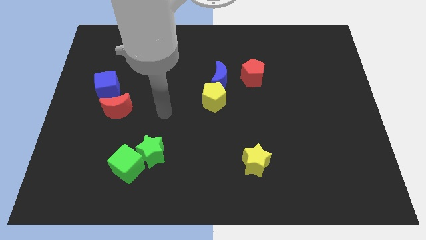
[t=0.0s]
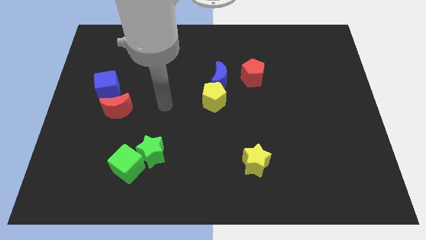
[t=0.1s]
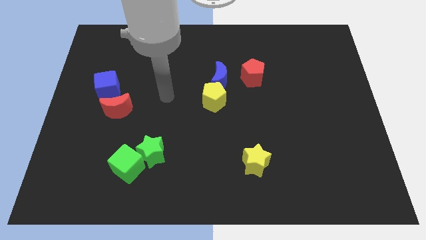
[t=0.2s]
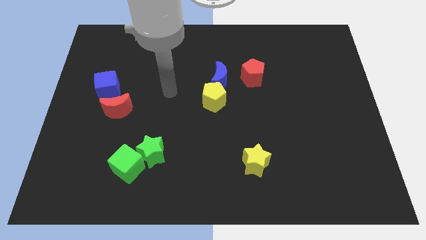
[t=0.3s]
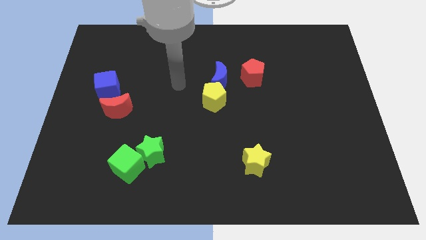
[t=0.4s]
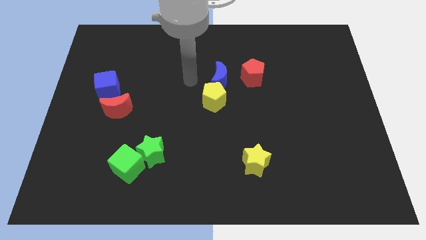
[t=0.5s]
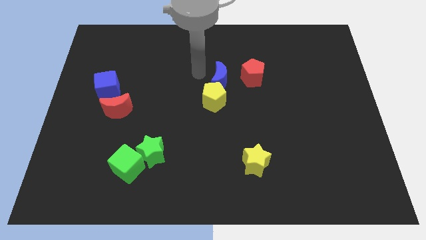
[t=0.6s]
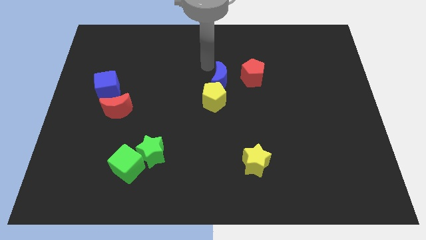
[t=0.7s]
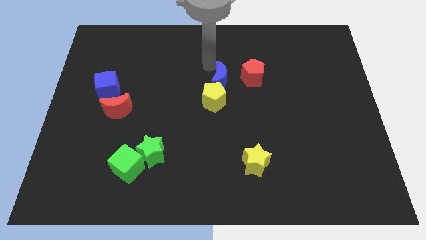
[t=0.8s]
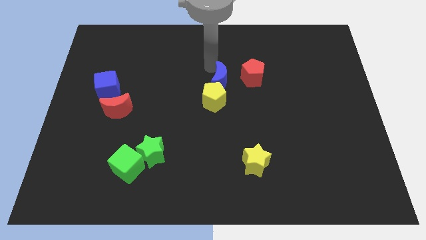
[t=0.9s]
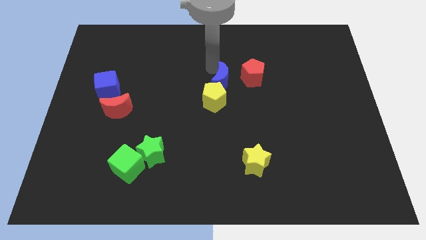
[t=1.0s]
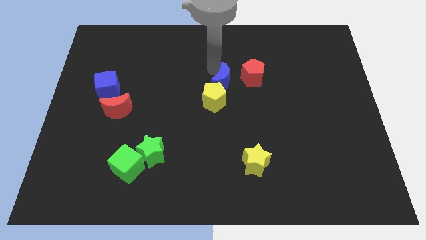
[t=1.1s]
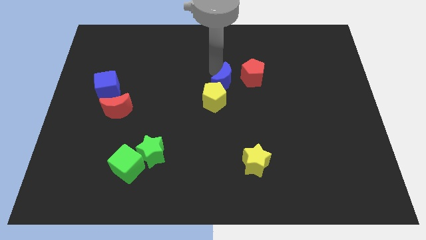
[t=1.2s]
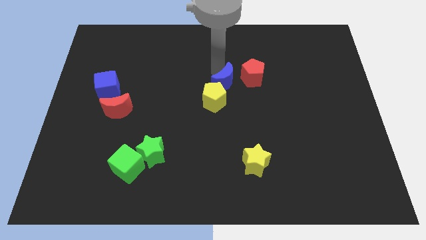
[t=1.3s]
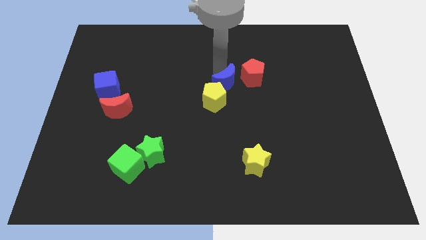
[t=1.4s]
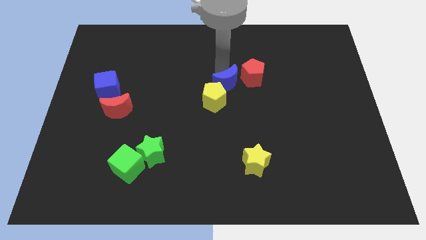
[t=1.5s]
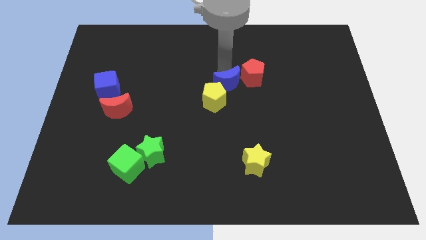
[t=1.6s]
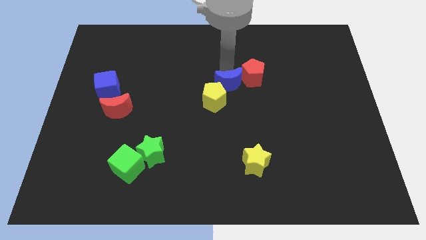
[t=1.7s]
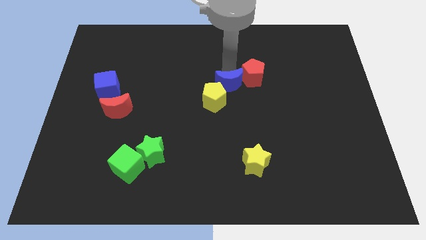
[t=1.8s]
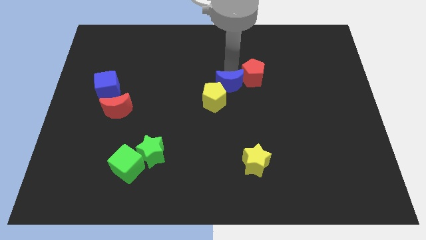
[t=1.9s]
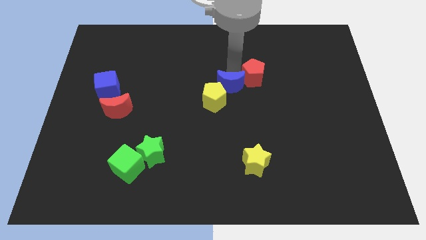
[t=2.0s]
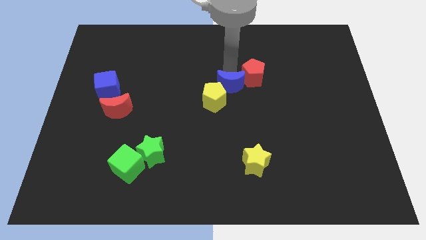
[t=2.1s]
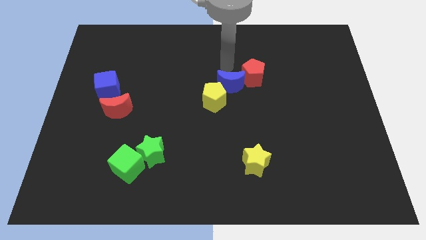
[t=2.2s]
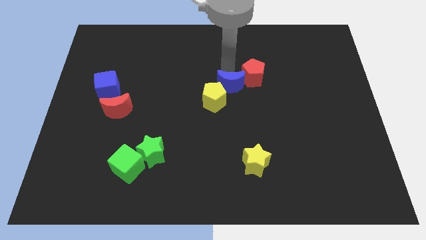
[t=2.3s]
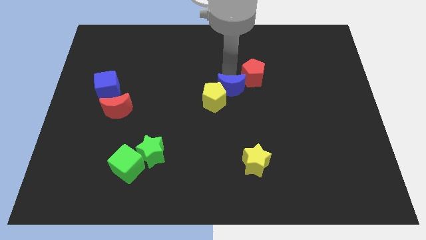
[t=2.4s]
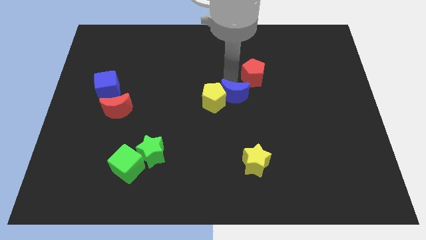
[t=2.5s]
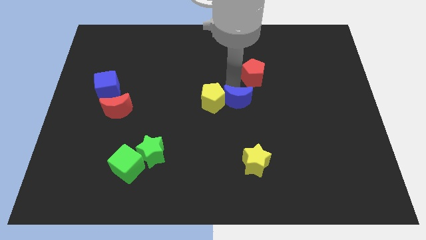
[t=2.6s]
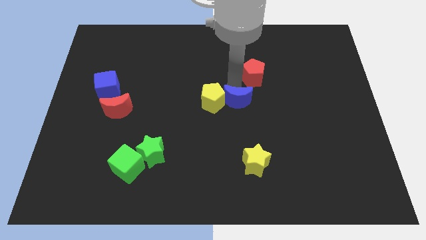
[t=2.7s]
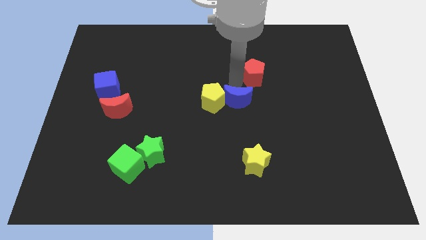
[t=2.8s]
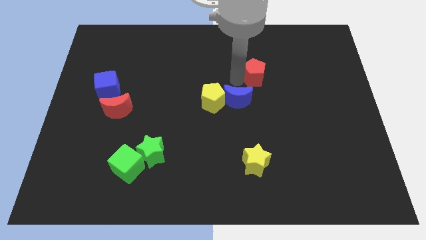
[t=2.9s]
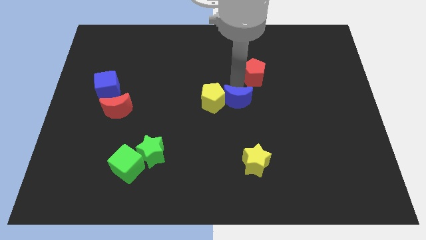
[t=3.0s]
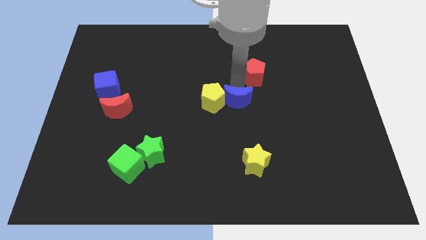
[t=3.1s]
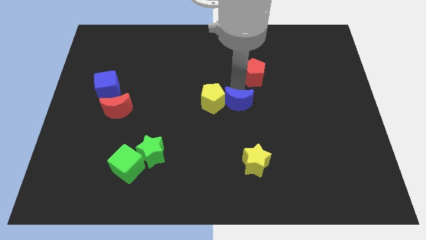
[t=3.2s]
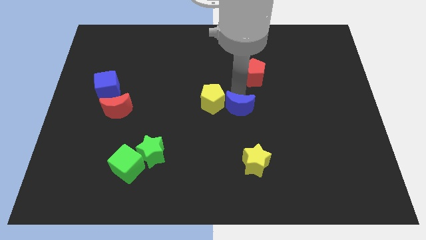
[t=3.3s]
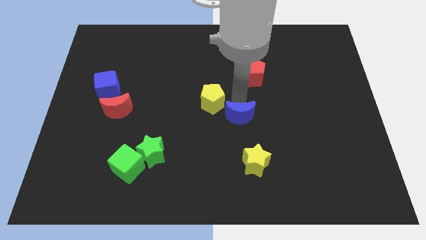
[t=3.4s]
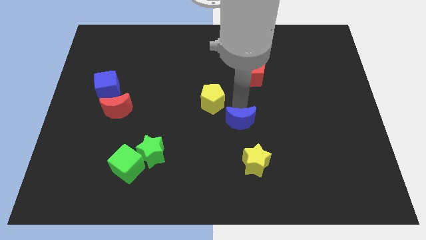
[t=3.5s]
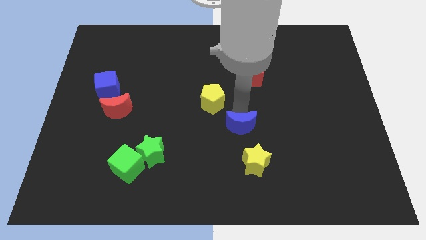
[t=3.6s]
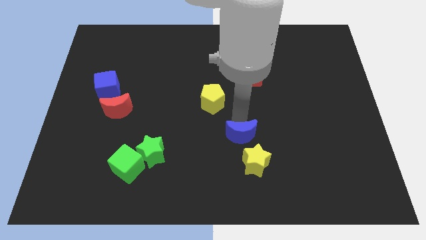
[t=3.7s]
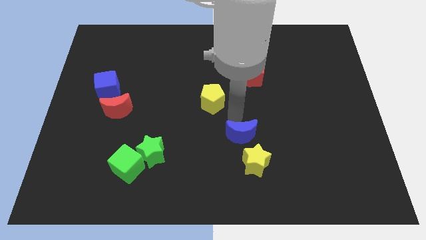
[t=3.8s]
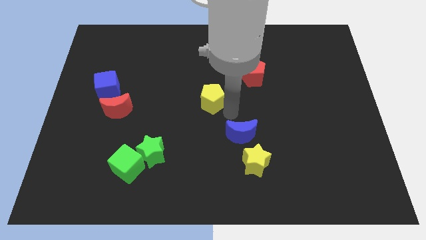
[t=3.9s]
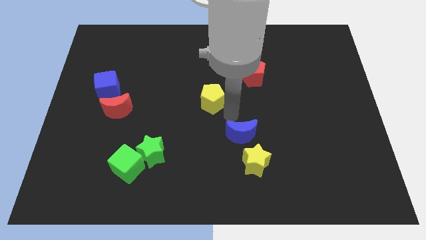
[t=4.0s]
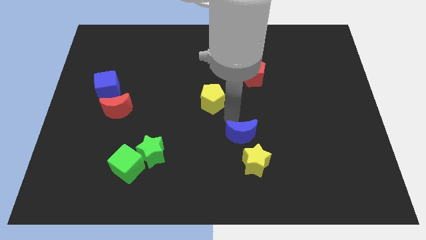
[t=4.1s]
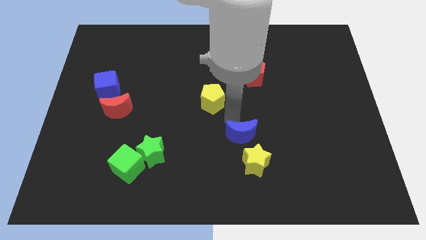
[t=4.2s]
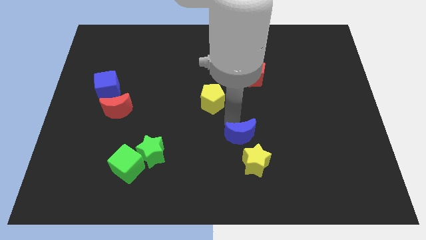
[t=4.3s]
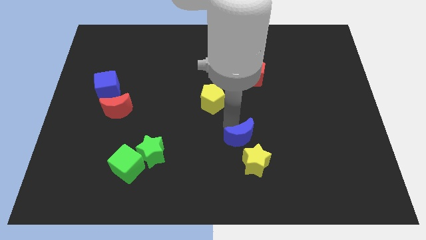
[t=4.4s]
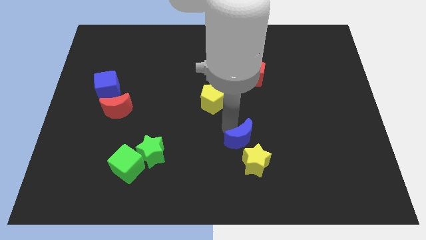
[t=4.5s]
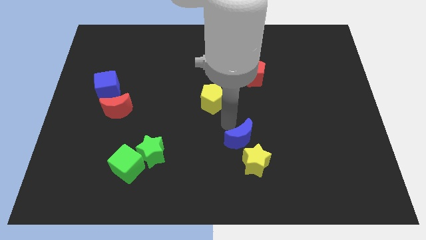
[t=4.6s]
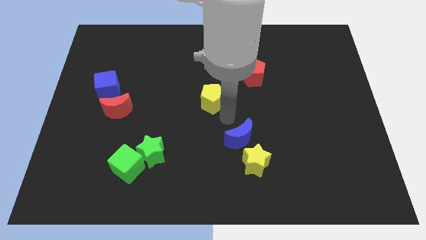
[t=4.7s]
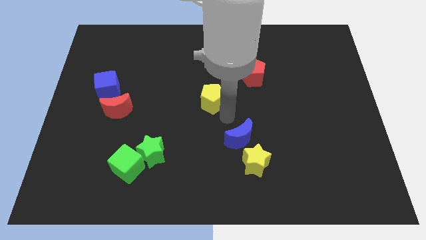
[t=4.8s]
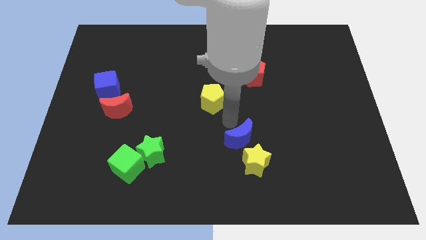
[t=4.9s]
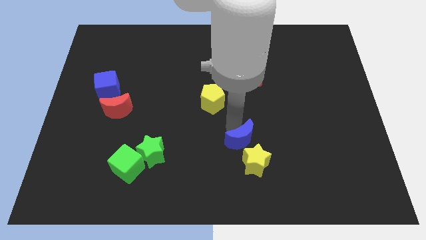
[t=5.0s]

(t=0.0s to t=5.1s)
put the blue moon close to the yellow star

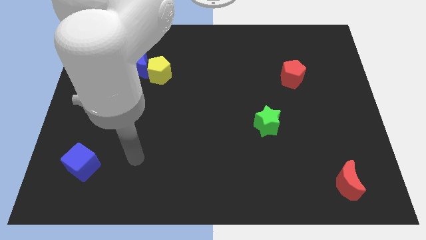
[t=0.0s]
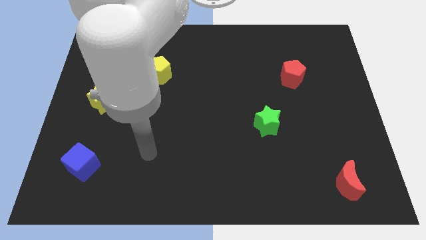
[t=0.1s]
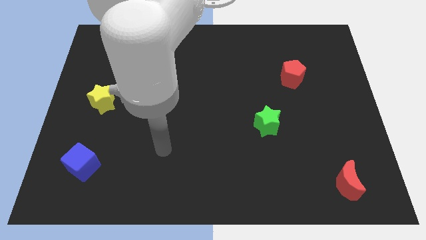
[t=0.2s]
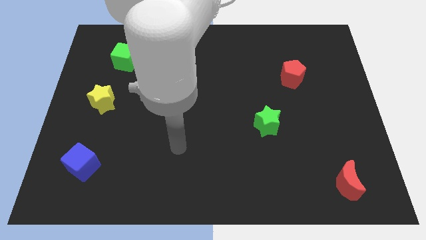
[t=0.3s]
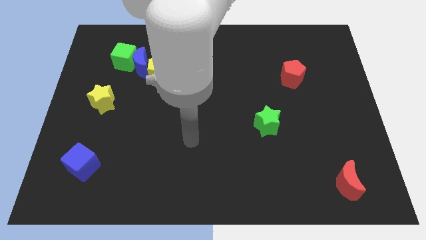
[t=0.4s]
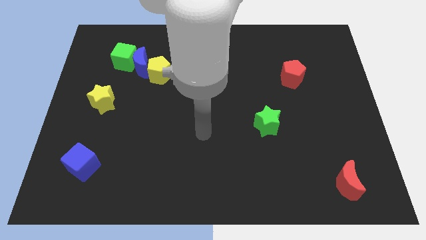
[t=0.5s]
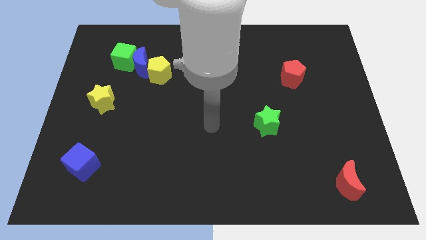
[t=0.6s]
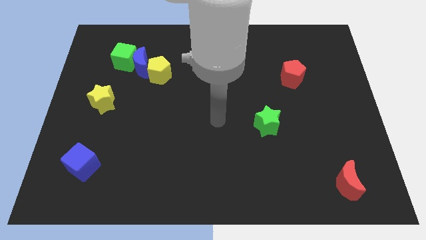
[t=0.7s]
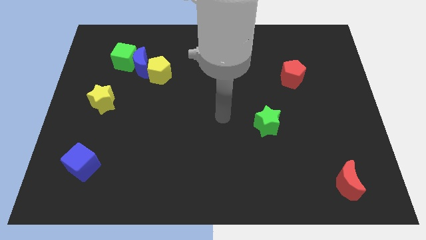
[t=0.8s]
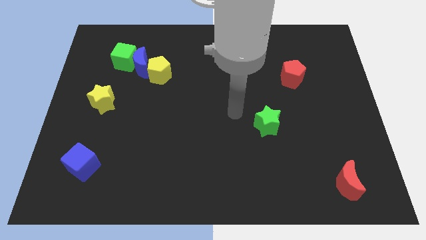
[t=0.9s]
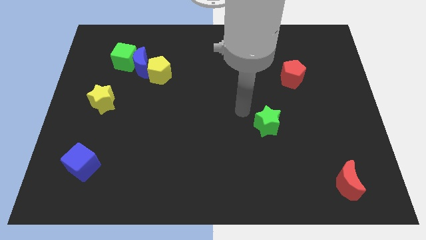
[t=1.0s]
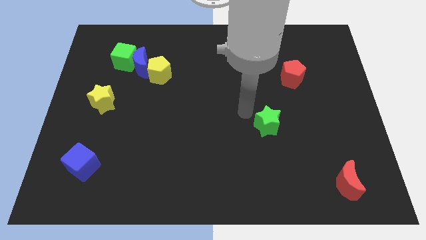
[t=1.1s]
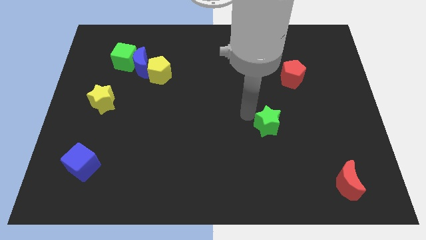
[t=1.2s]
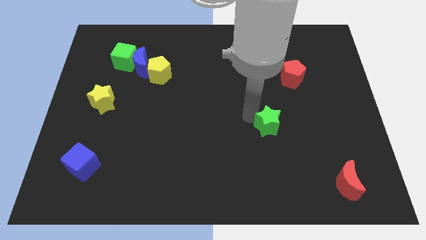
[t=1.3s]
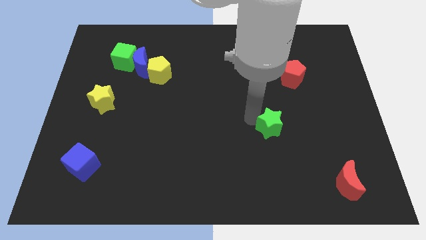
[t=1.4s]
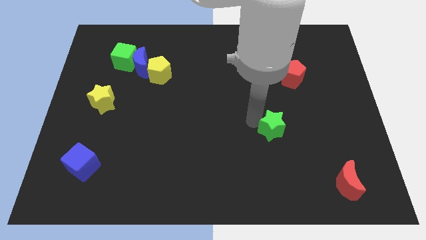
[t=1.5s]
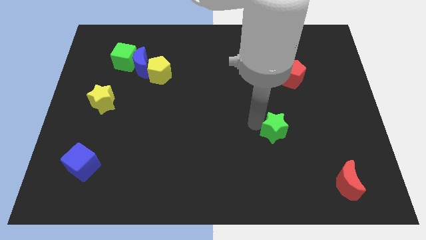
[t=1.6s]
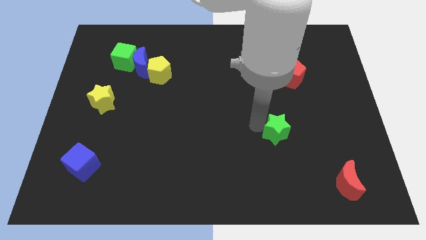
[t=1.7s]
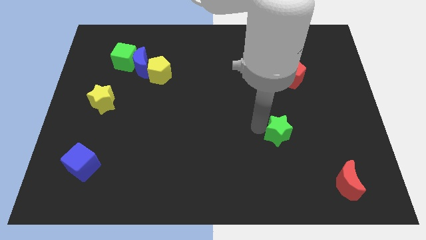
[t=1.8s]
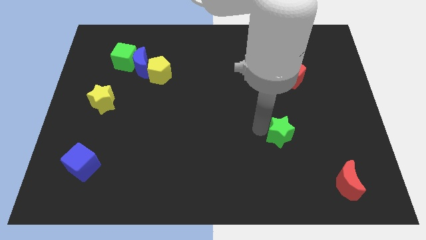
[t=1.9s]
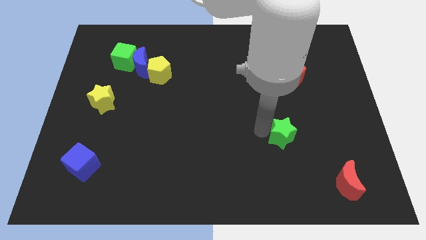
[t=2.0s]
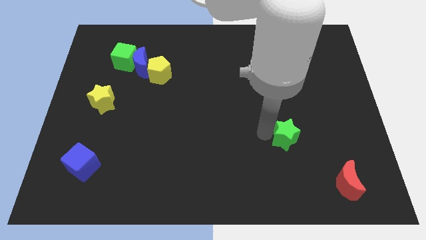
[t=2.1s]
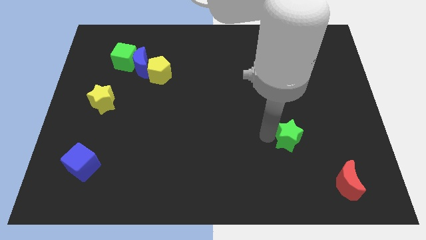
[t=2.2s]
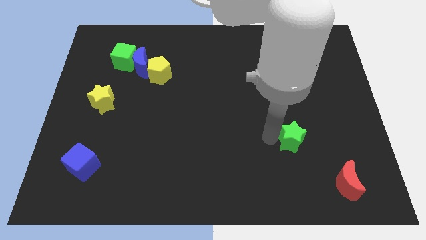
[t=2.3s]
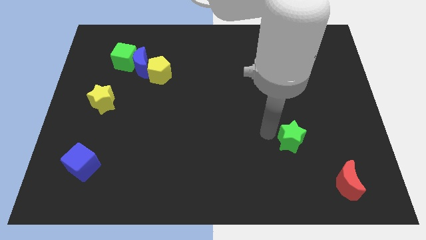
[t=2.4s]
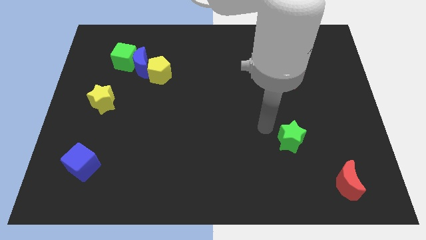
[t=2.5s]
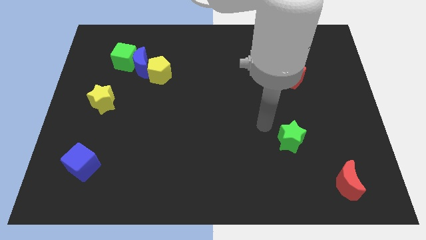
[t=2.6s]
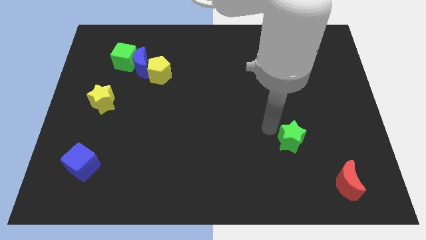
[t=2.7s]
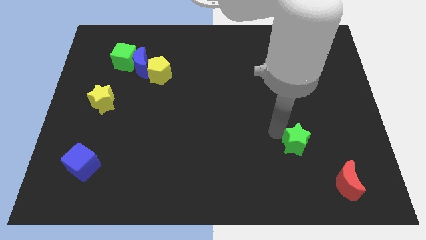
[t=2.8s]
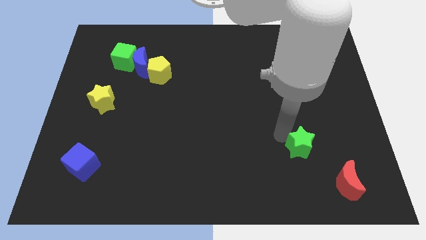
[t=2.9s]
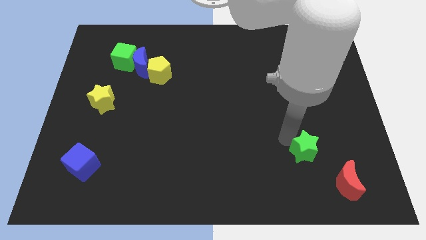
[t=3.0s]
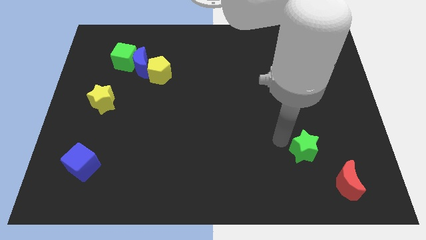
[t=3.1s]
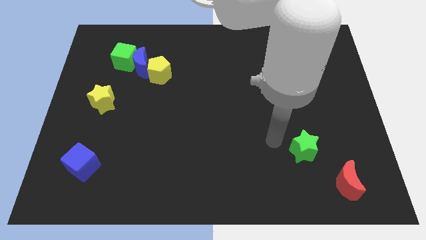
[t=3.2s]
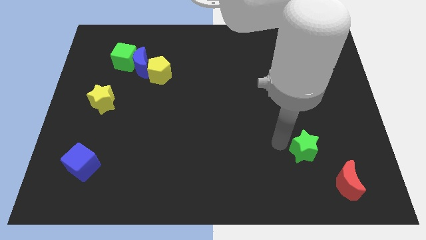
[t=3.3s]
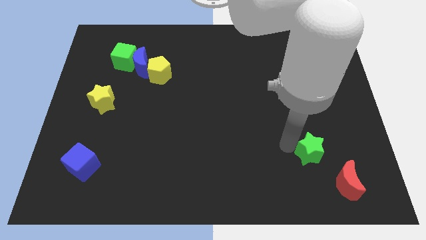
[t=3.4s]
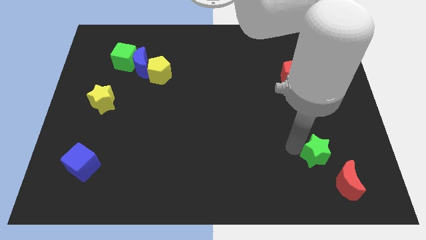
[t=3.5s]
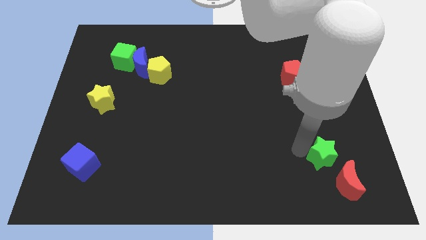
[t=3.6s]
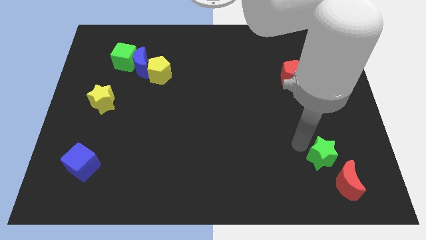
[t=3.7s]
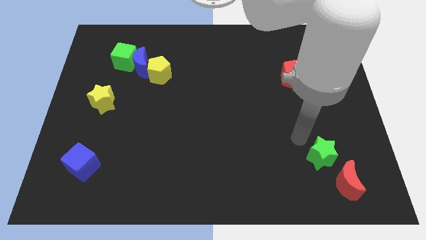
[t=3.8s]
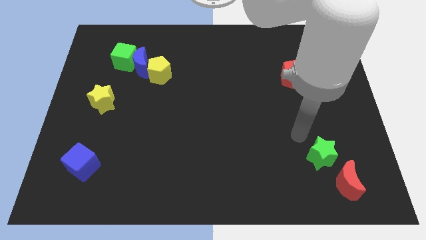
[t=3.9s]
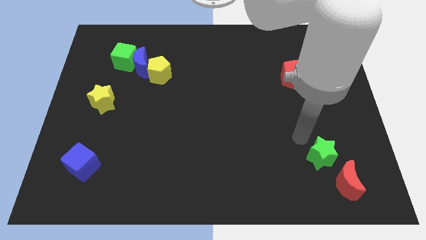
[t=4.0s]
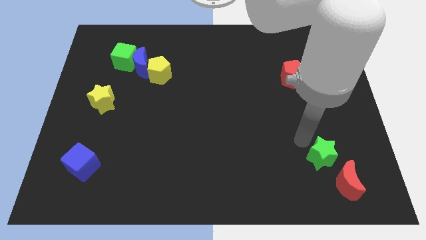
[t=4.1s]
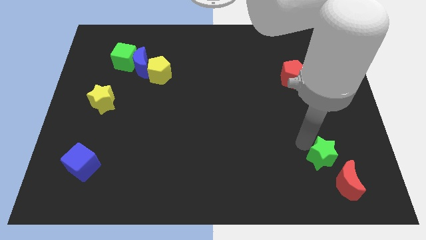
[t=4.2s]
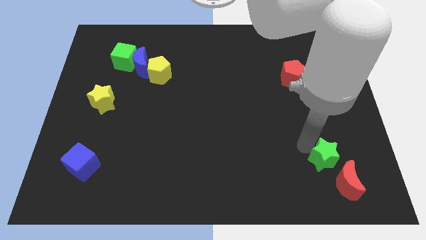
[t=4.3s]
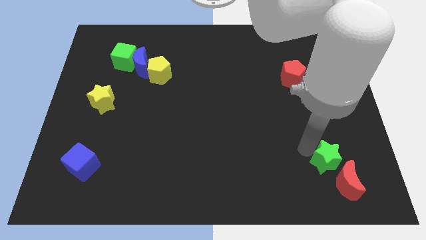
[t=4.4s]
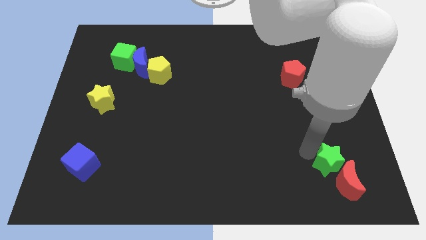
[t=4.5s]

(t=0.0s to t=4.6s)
push the green star next to the red moon
